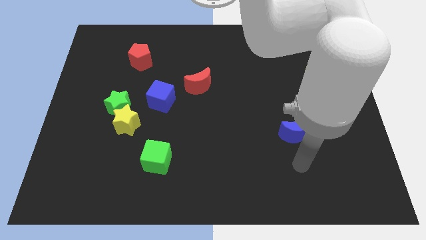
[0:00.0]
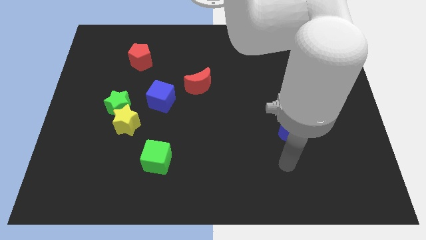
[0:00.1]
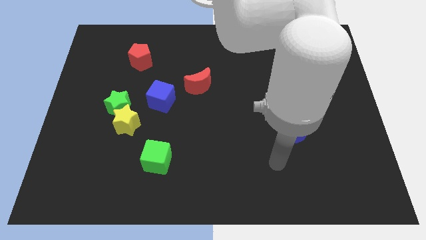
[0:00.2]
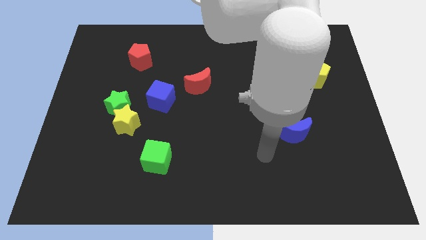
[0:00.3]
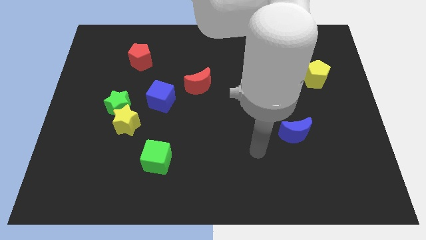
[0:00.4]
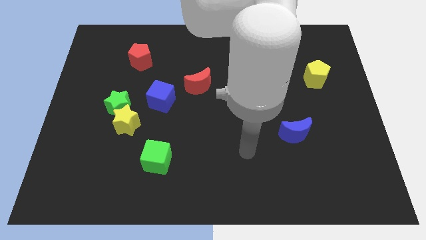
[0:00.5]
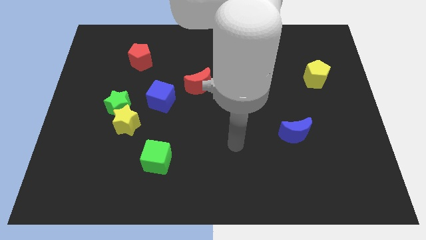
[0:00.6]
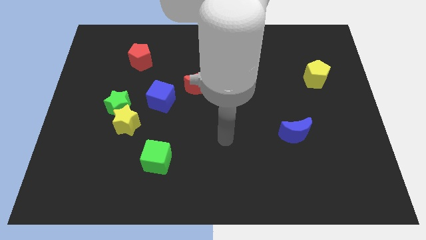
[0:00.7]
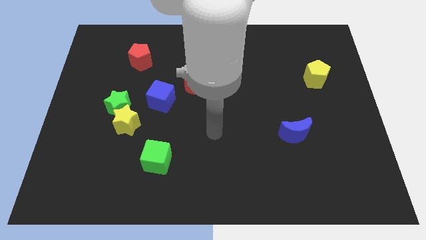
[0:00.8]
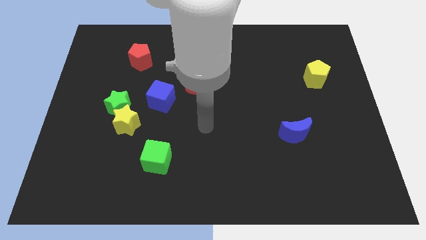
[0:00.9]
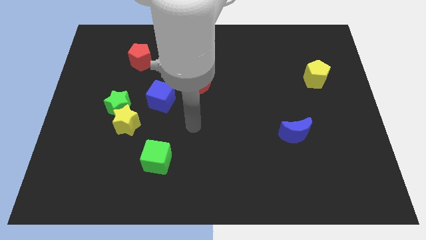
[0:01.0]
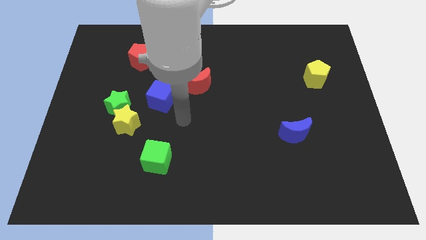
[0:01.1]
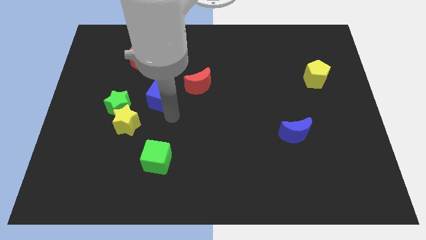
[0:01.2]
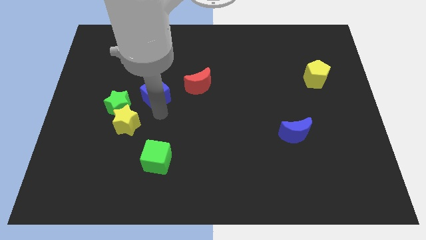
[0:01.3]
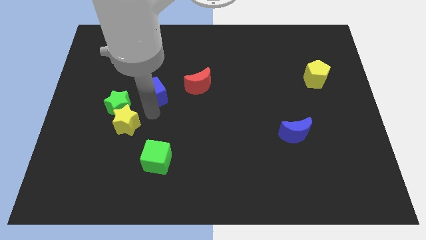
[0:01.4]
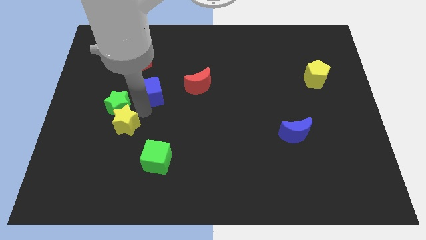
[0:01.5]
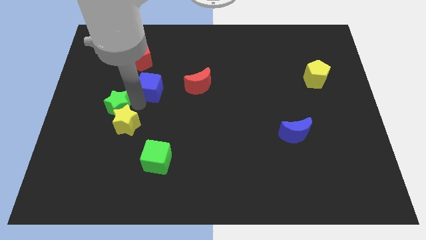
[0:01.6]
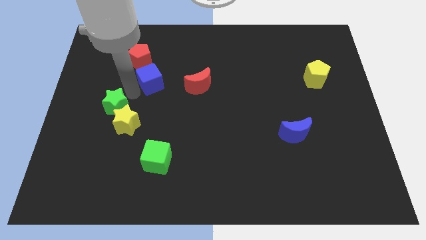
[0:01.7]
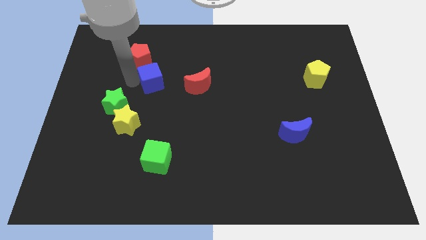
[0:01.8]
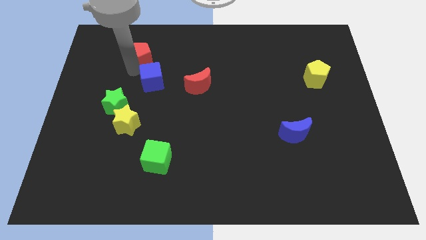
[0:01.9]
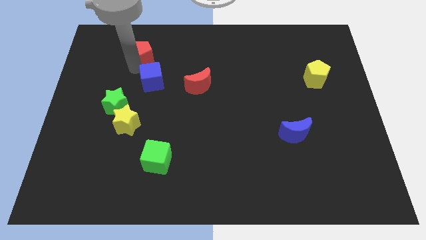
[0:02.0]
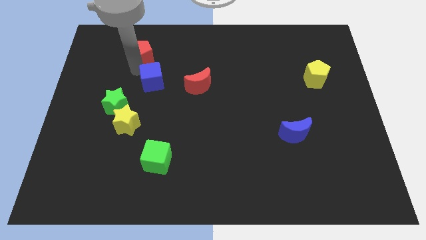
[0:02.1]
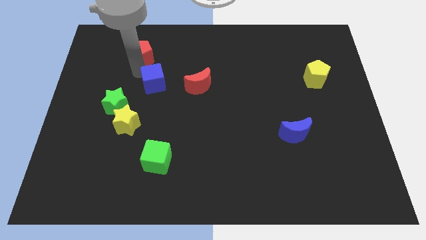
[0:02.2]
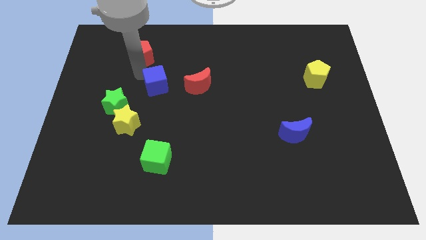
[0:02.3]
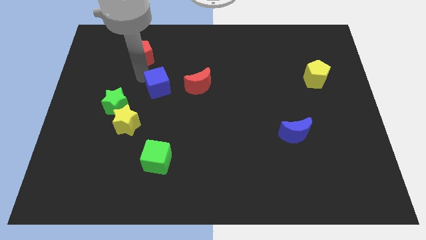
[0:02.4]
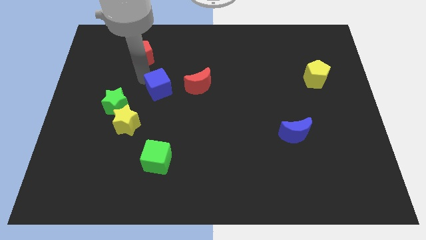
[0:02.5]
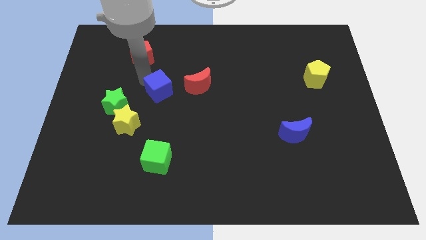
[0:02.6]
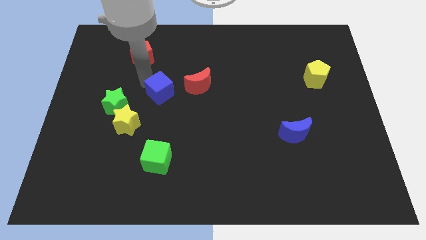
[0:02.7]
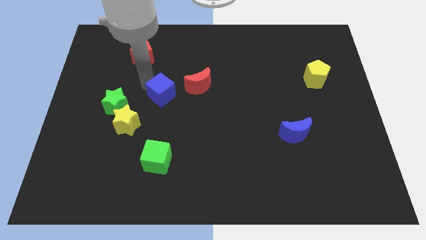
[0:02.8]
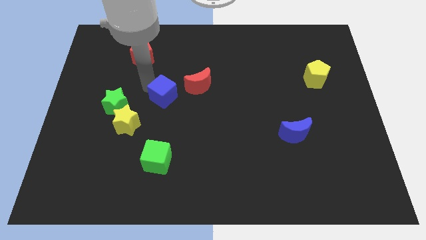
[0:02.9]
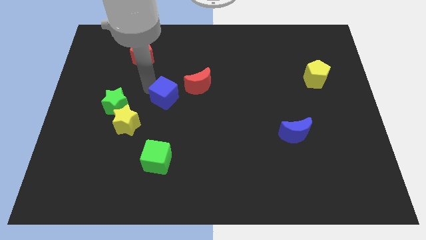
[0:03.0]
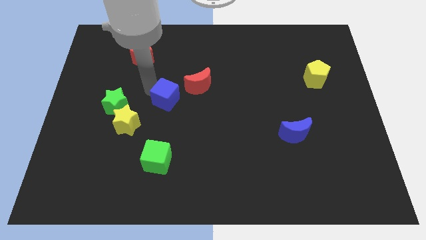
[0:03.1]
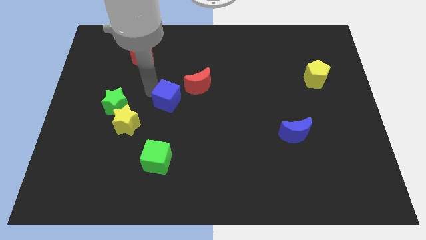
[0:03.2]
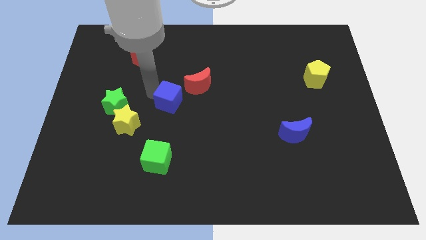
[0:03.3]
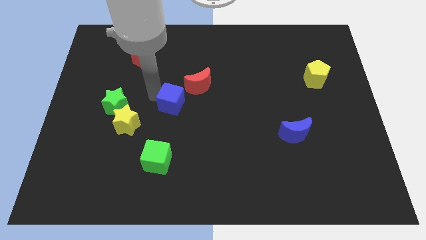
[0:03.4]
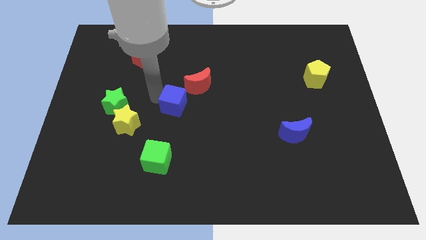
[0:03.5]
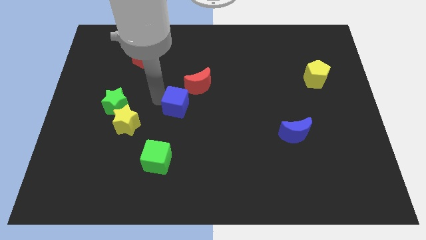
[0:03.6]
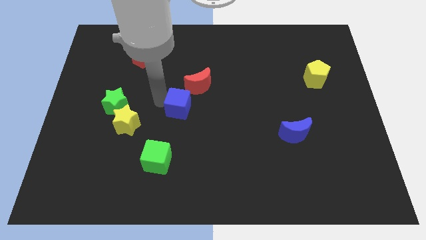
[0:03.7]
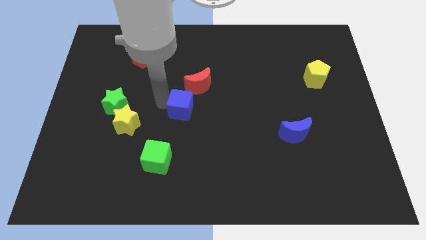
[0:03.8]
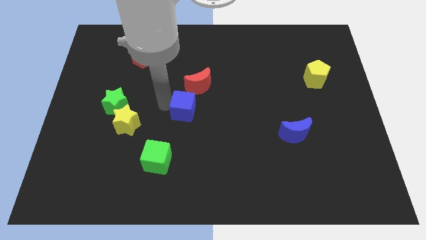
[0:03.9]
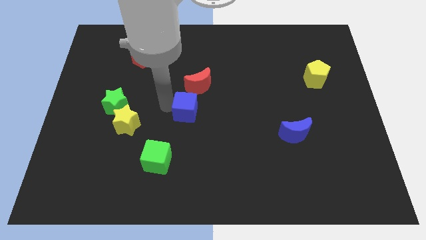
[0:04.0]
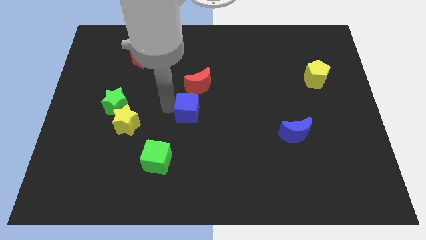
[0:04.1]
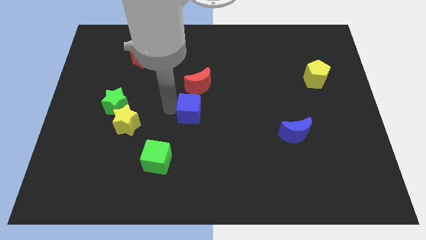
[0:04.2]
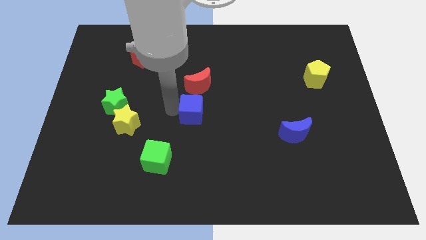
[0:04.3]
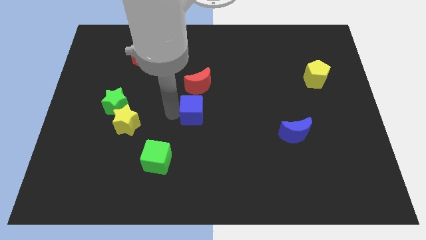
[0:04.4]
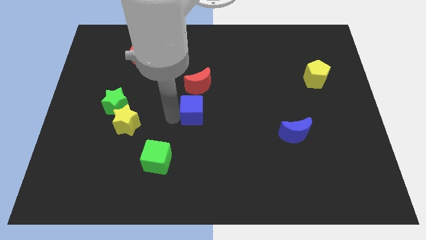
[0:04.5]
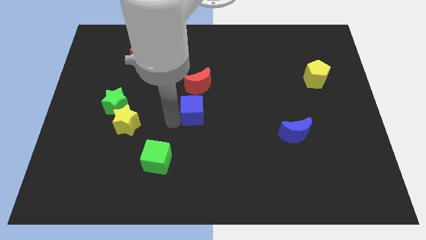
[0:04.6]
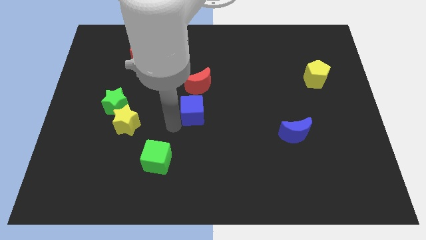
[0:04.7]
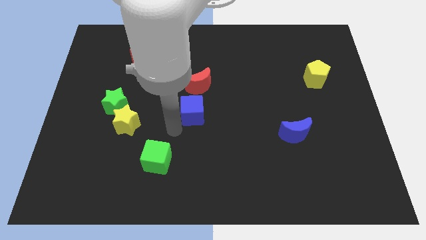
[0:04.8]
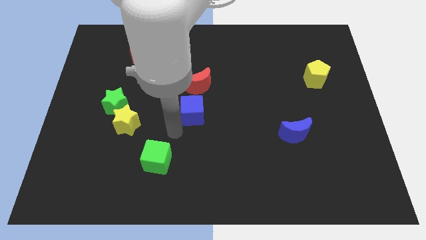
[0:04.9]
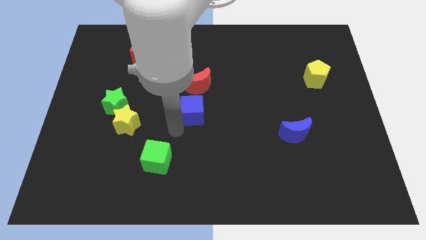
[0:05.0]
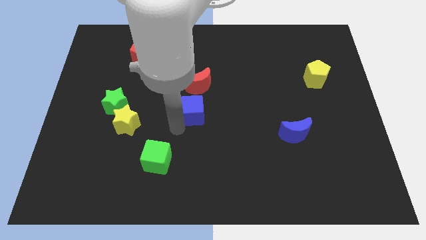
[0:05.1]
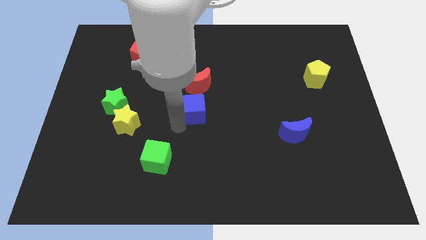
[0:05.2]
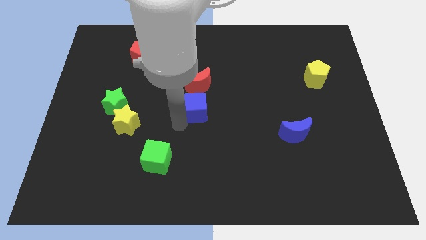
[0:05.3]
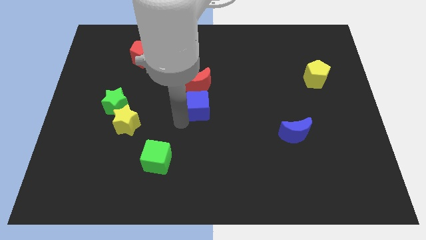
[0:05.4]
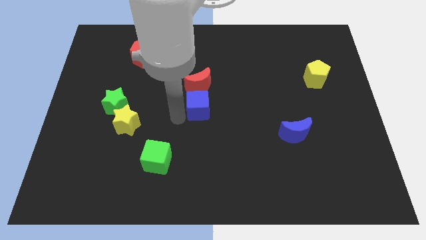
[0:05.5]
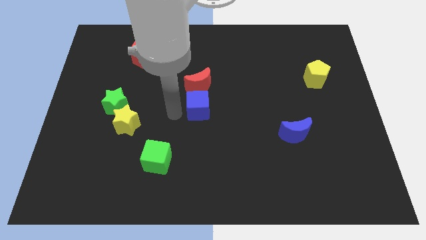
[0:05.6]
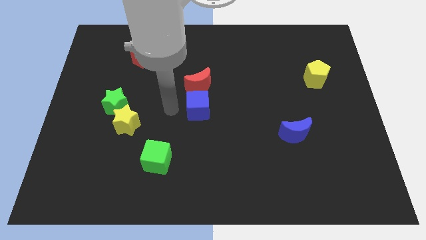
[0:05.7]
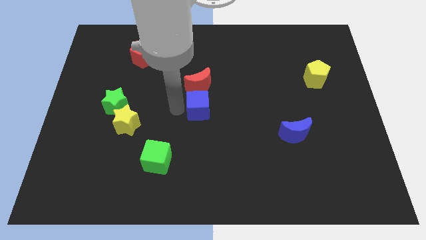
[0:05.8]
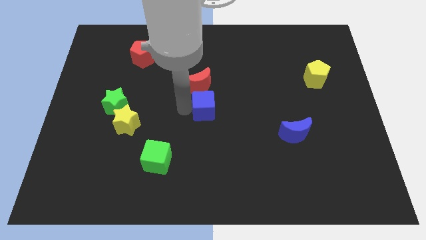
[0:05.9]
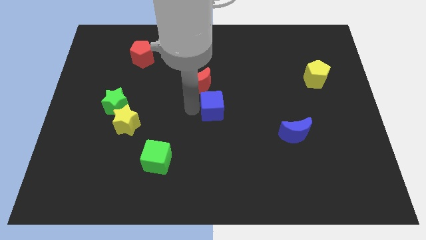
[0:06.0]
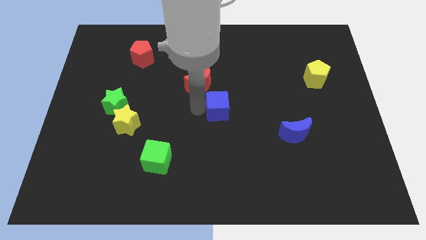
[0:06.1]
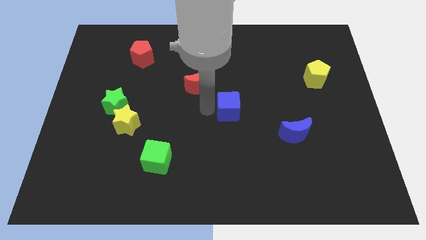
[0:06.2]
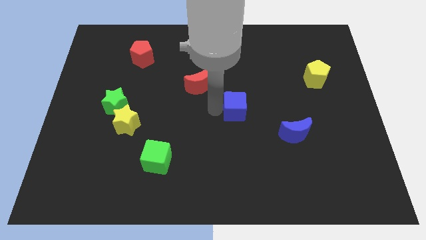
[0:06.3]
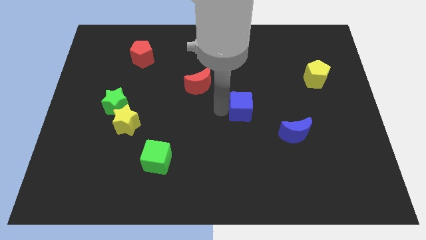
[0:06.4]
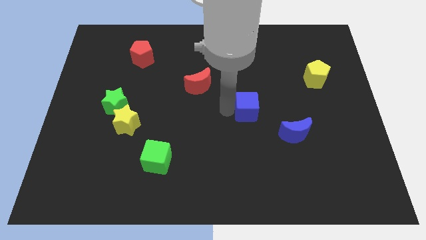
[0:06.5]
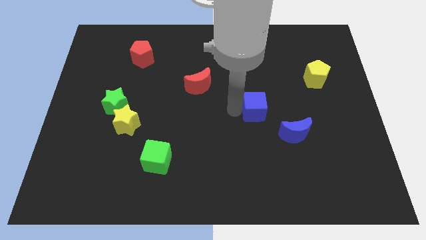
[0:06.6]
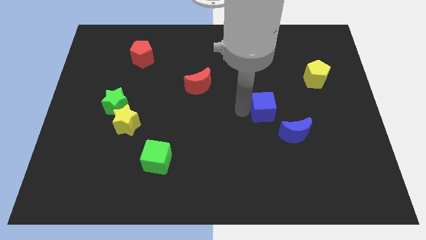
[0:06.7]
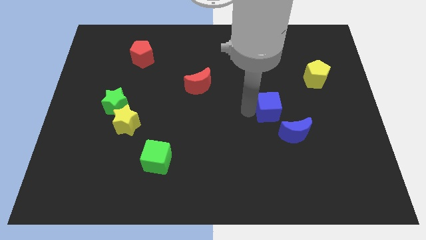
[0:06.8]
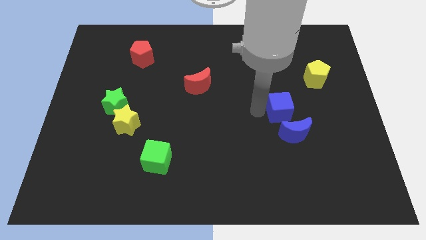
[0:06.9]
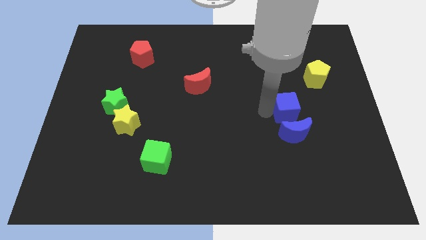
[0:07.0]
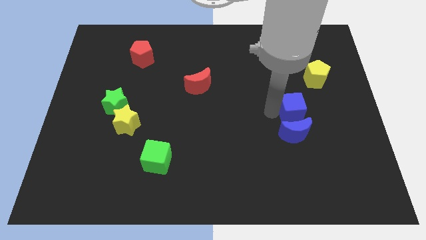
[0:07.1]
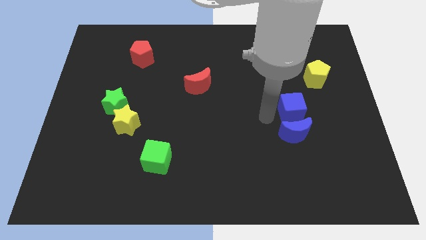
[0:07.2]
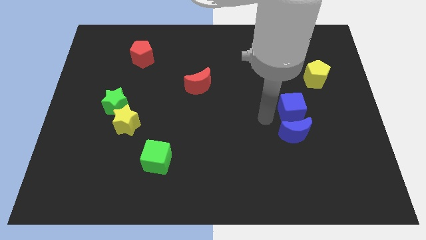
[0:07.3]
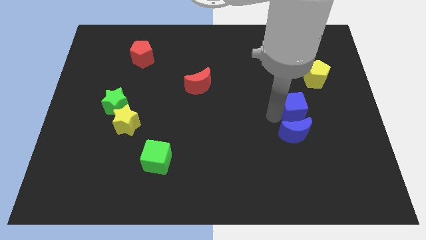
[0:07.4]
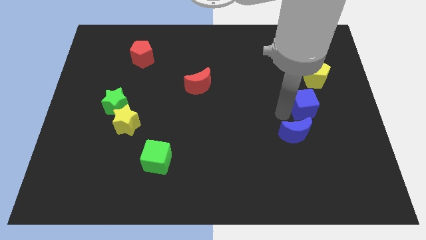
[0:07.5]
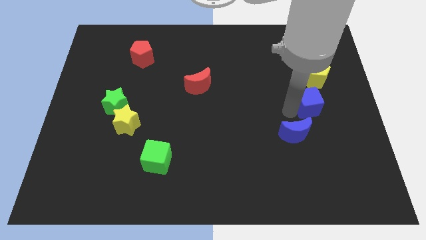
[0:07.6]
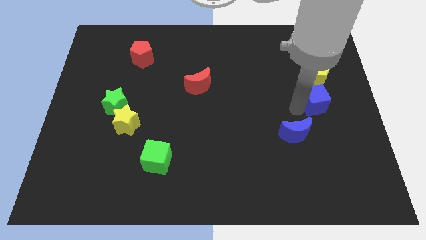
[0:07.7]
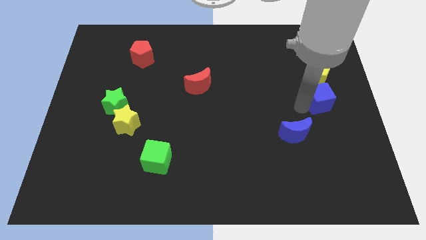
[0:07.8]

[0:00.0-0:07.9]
slide the blue cube to the right side of the board
